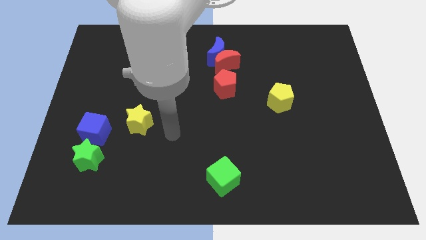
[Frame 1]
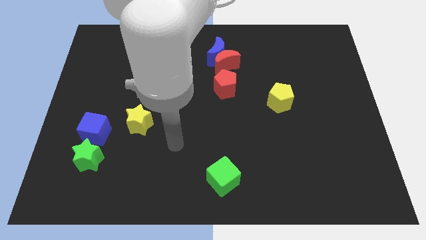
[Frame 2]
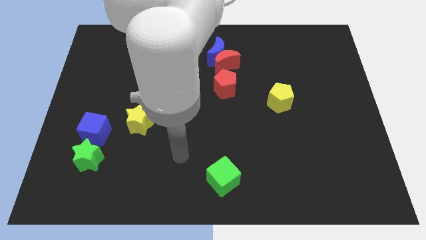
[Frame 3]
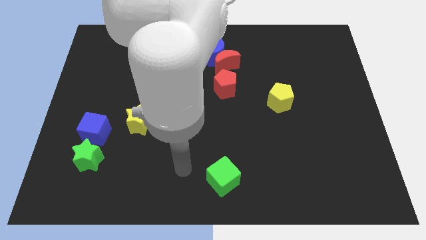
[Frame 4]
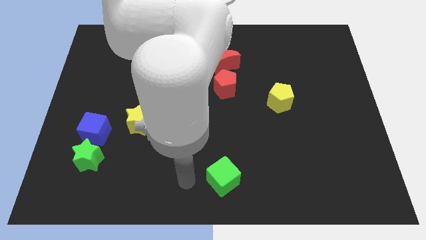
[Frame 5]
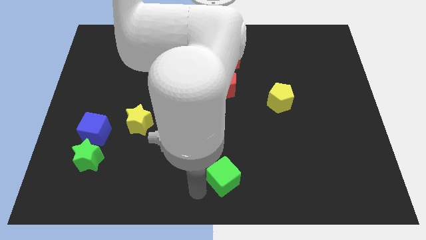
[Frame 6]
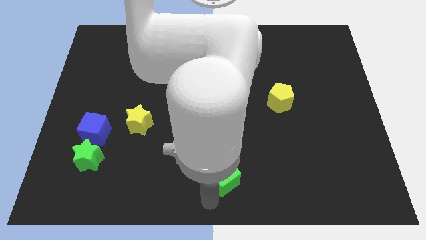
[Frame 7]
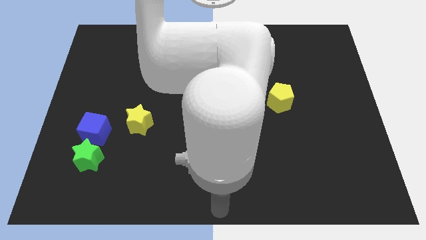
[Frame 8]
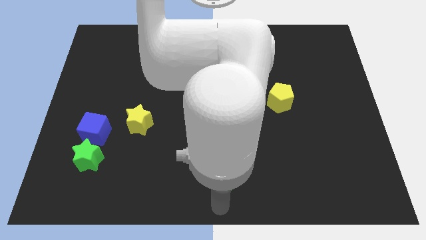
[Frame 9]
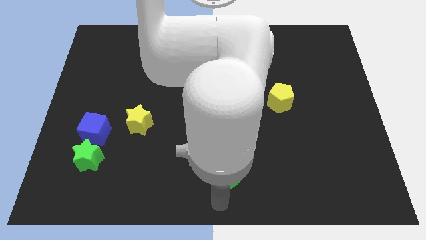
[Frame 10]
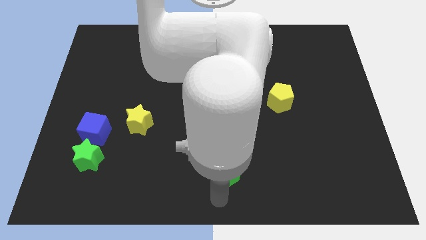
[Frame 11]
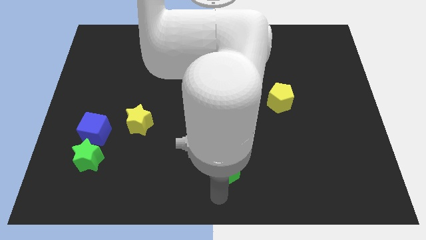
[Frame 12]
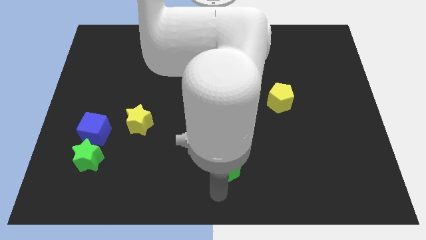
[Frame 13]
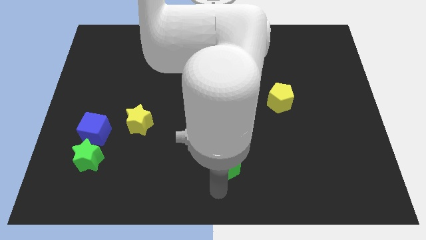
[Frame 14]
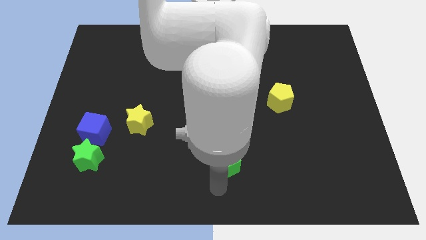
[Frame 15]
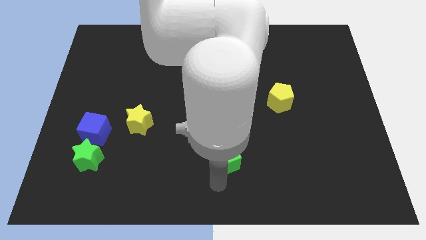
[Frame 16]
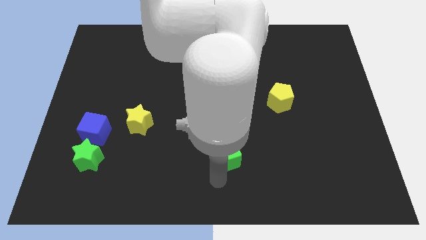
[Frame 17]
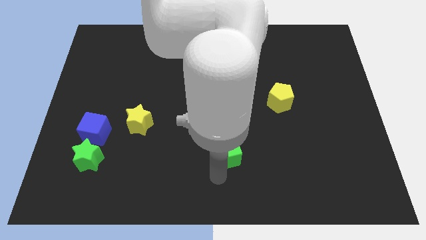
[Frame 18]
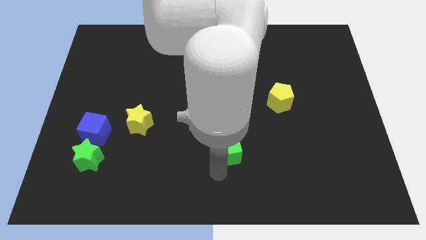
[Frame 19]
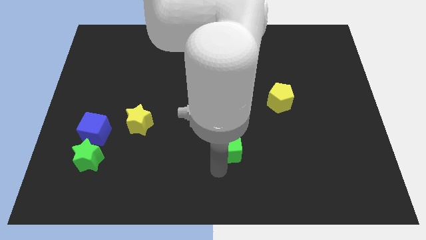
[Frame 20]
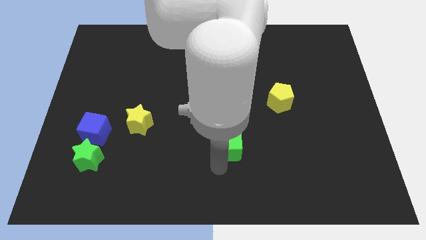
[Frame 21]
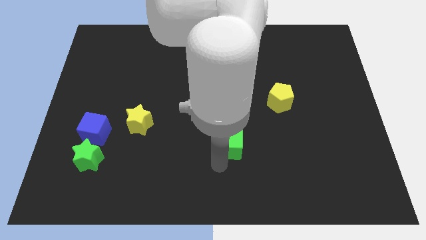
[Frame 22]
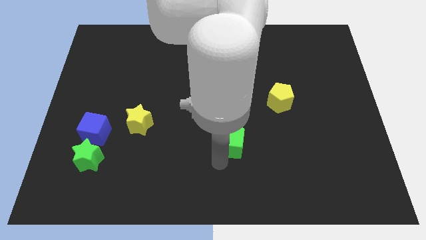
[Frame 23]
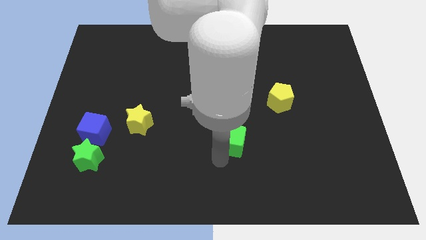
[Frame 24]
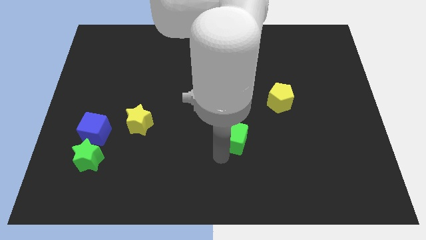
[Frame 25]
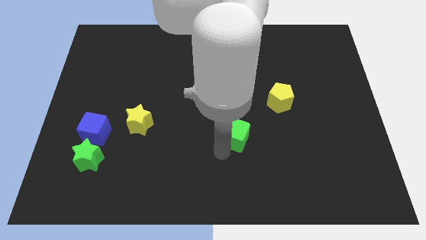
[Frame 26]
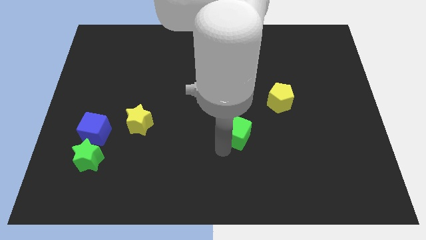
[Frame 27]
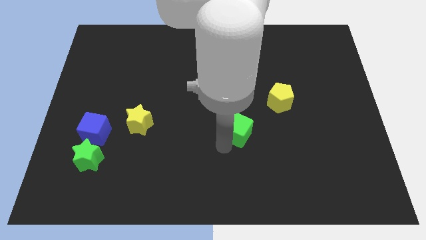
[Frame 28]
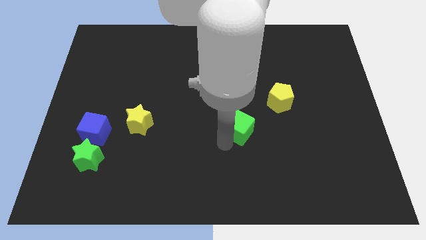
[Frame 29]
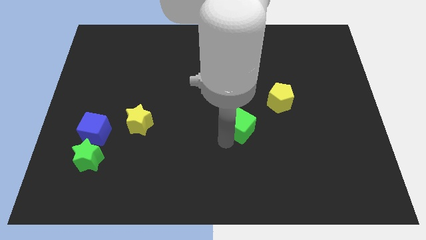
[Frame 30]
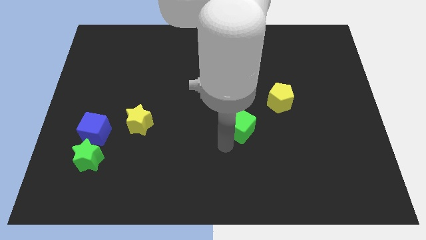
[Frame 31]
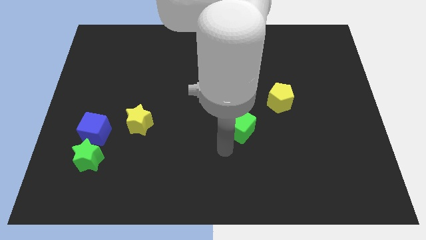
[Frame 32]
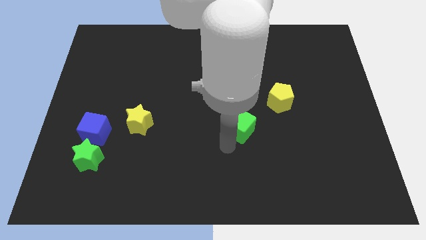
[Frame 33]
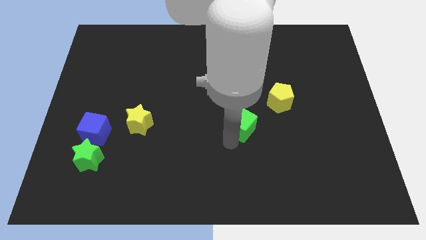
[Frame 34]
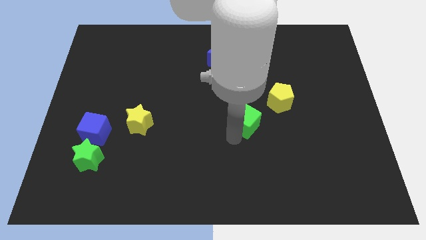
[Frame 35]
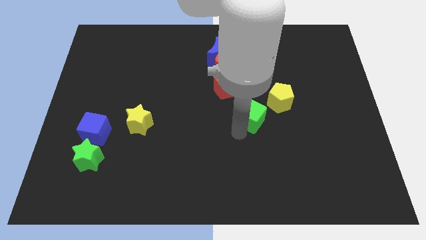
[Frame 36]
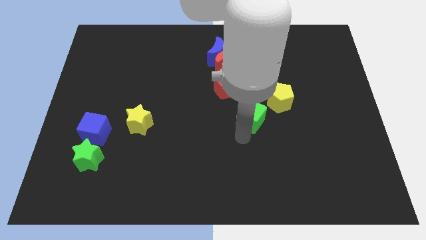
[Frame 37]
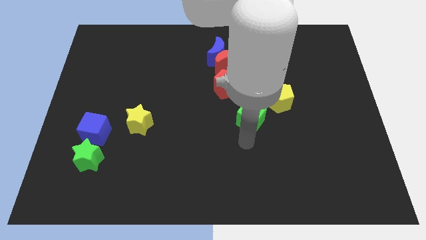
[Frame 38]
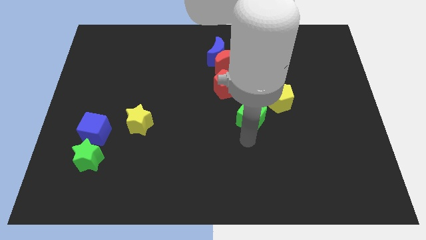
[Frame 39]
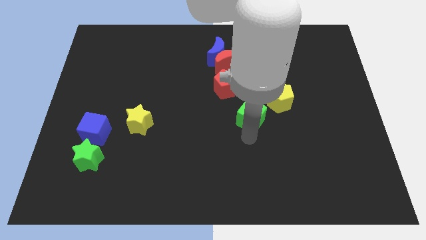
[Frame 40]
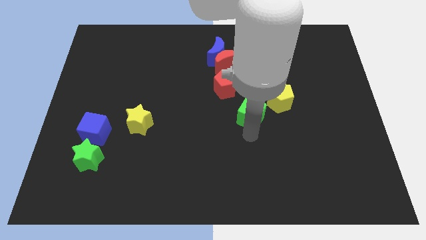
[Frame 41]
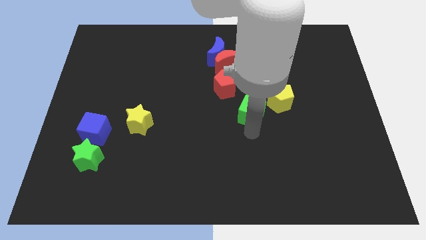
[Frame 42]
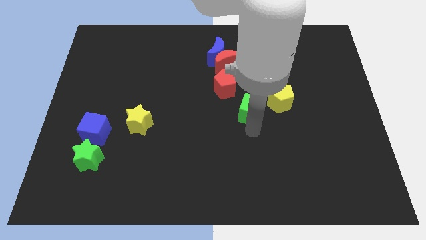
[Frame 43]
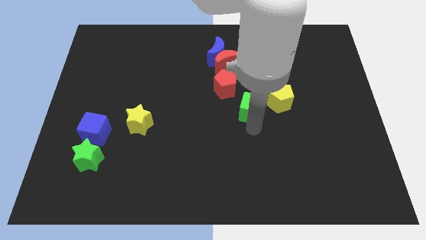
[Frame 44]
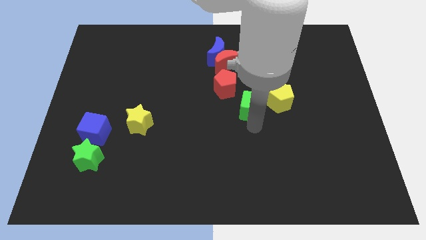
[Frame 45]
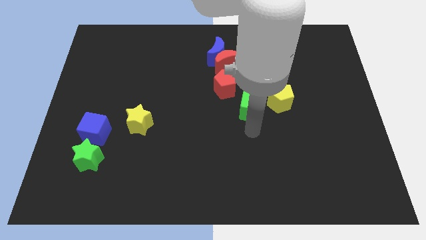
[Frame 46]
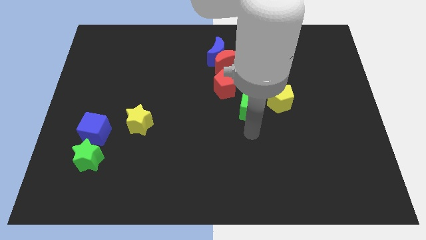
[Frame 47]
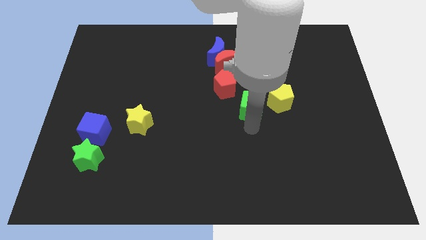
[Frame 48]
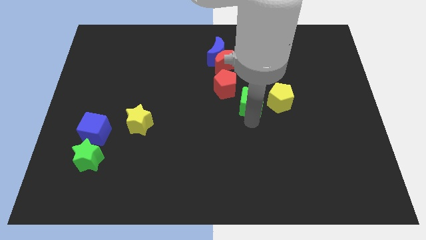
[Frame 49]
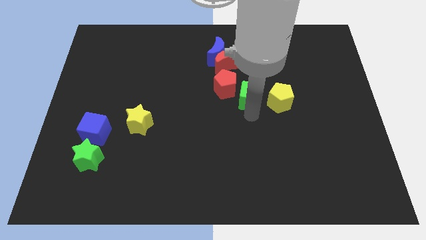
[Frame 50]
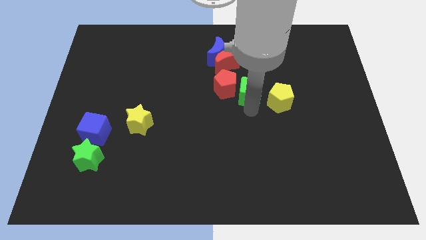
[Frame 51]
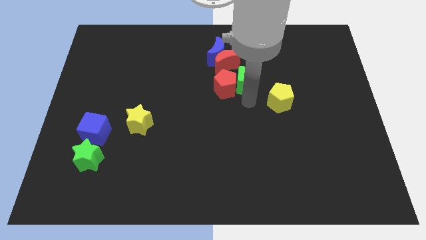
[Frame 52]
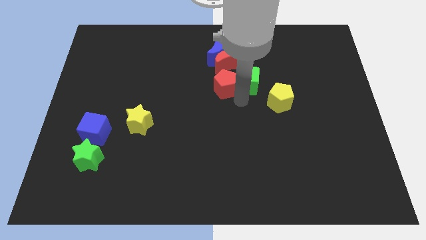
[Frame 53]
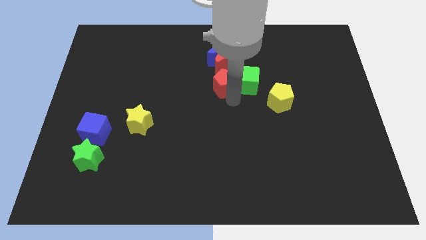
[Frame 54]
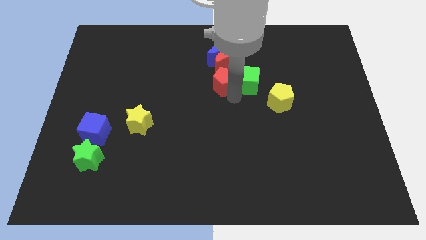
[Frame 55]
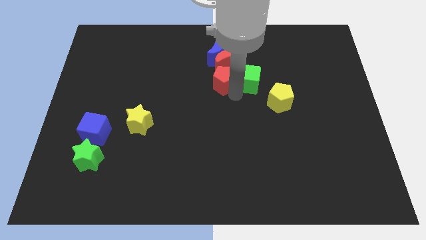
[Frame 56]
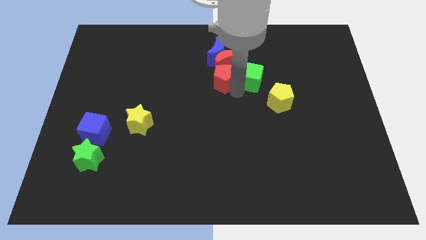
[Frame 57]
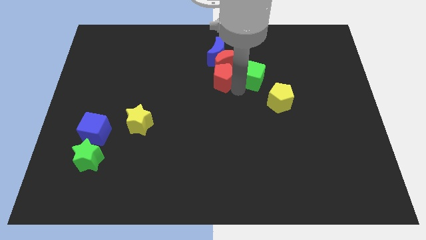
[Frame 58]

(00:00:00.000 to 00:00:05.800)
move the green cube right of the red moon

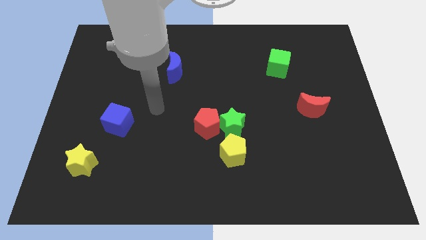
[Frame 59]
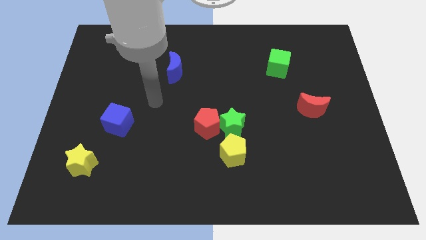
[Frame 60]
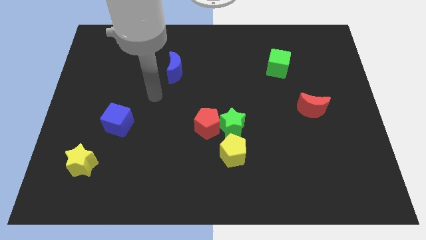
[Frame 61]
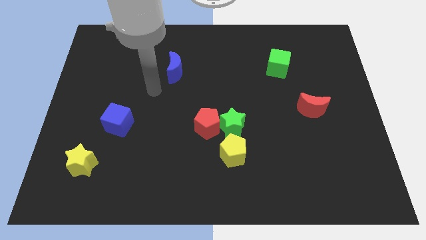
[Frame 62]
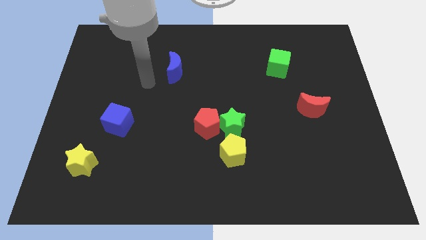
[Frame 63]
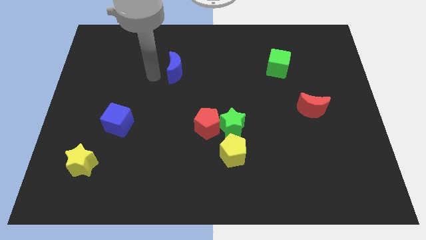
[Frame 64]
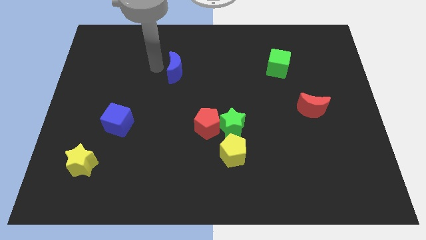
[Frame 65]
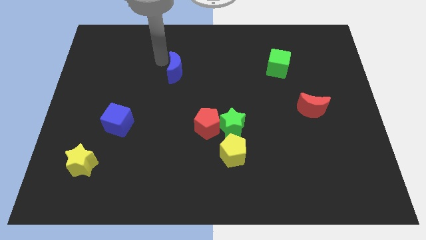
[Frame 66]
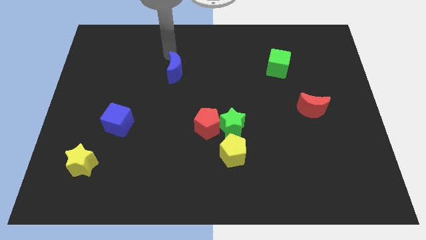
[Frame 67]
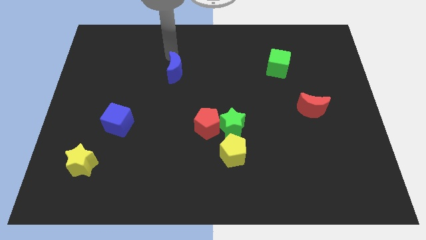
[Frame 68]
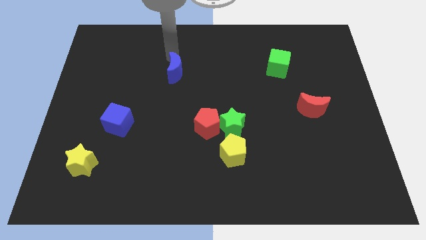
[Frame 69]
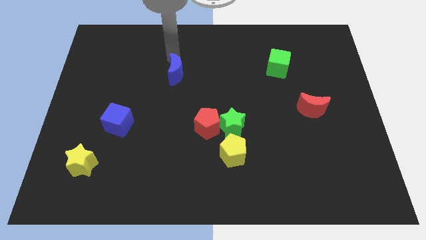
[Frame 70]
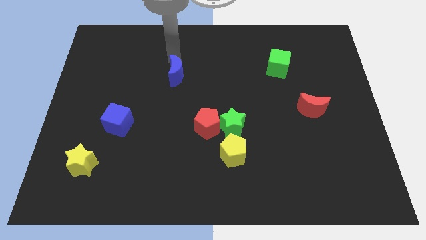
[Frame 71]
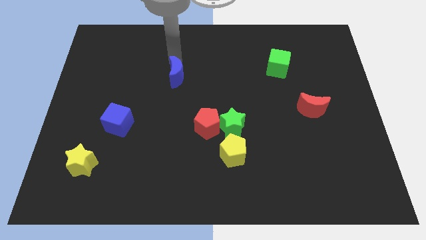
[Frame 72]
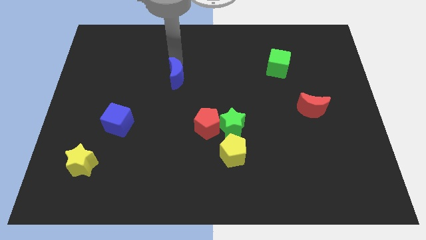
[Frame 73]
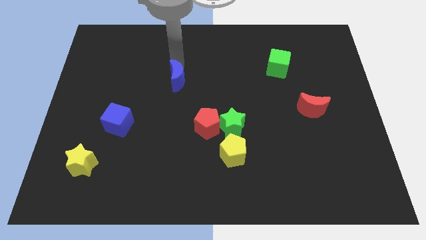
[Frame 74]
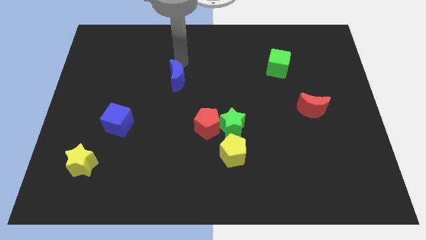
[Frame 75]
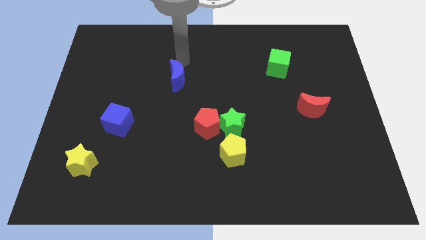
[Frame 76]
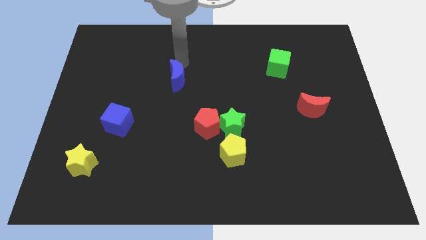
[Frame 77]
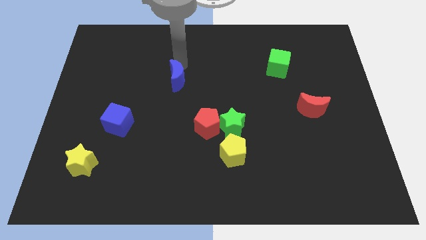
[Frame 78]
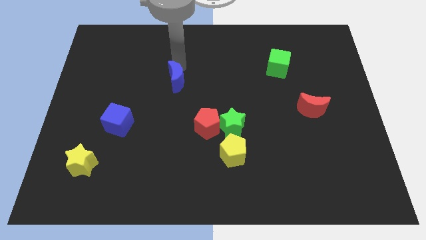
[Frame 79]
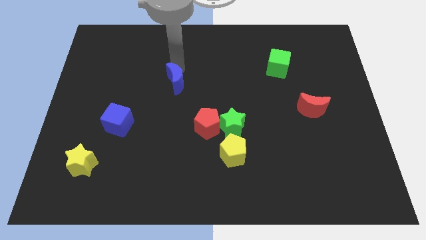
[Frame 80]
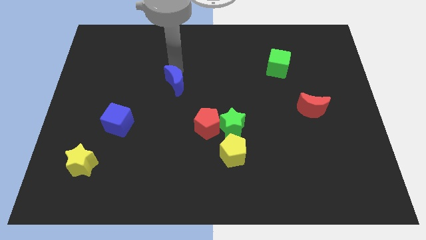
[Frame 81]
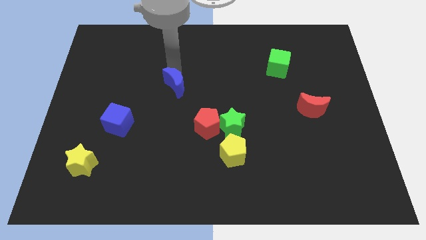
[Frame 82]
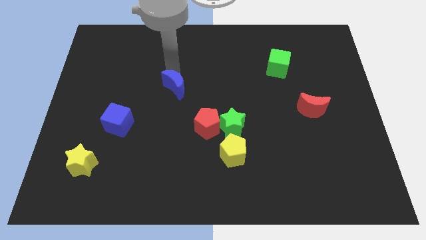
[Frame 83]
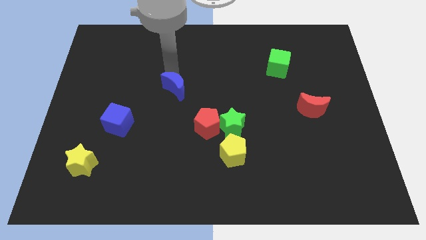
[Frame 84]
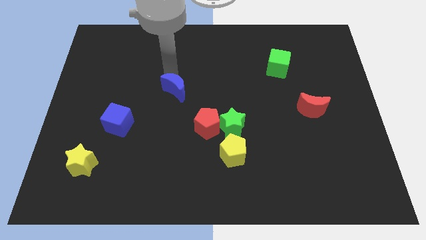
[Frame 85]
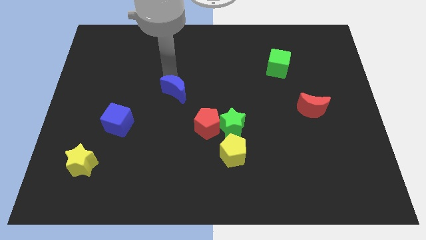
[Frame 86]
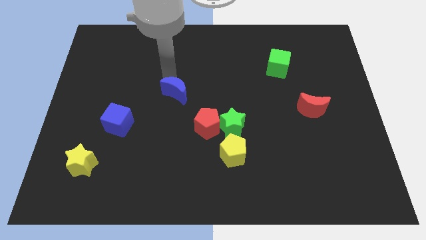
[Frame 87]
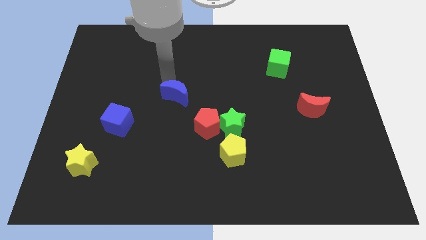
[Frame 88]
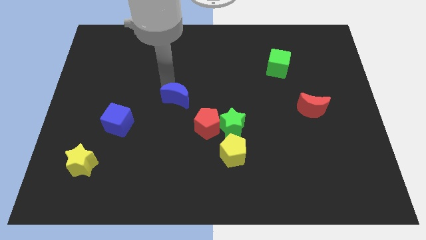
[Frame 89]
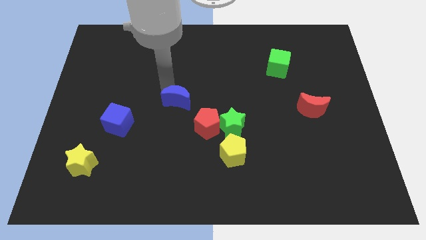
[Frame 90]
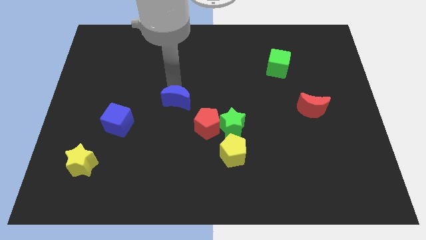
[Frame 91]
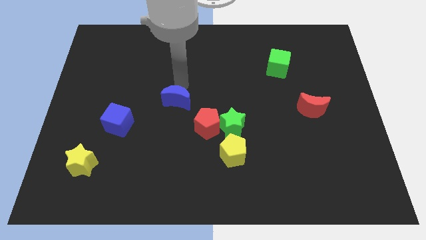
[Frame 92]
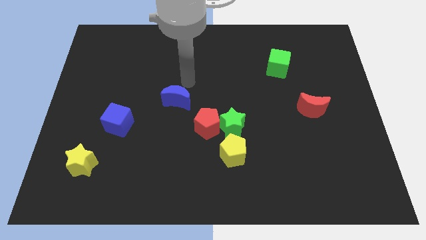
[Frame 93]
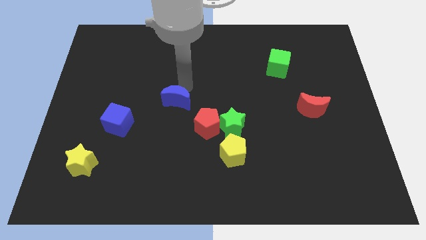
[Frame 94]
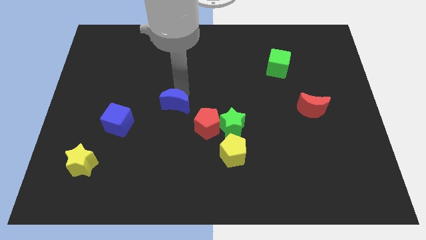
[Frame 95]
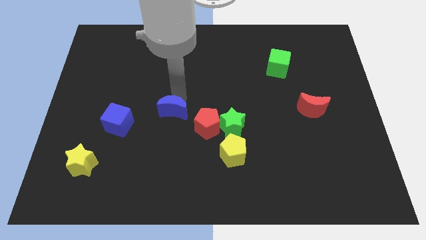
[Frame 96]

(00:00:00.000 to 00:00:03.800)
push the blue moon just left of the red pentagon
